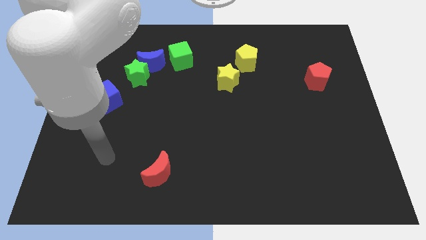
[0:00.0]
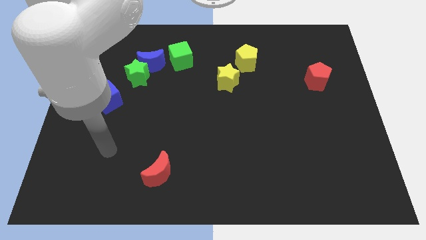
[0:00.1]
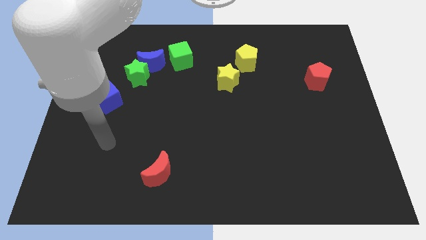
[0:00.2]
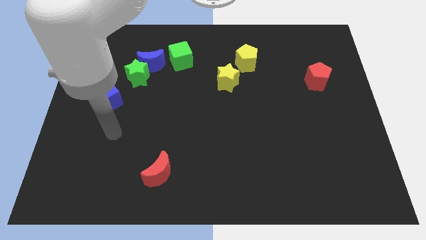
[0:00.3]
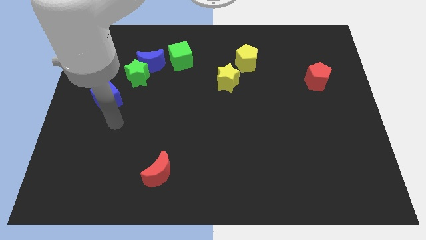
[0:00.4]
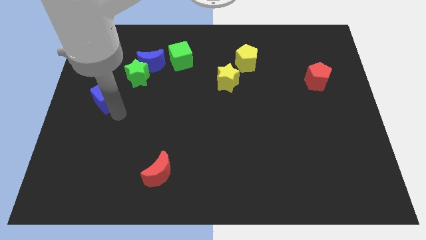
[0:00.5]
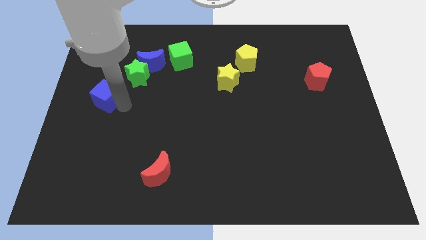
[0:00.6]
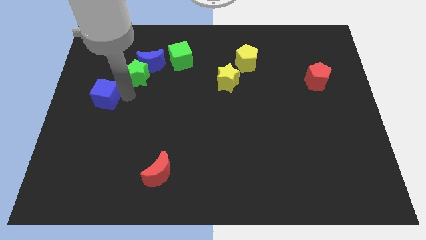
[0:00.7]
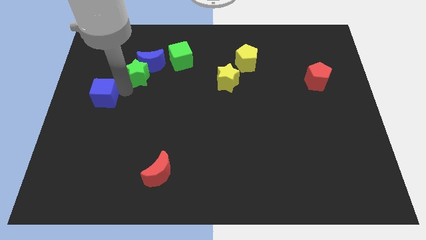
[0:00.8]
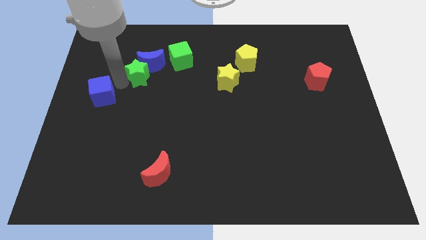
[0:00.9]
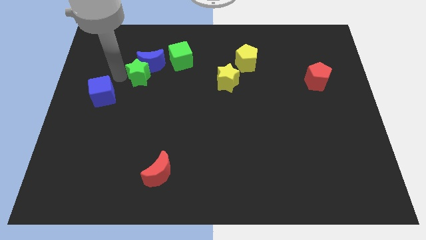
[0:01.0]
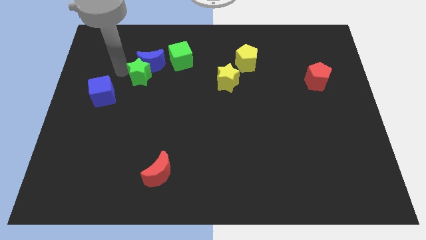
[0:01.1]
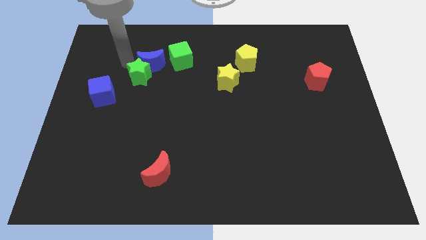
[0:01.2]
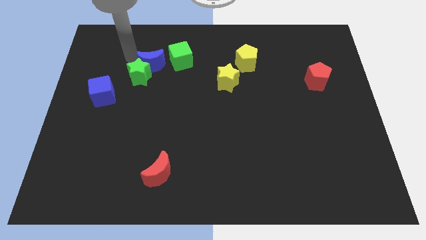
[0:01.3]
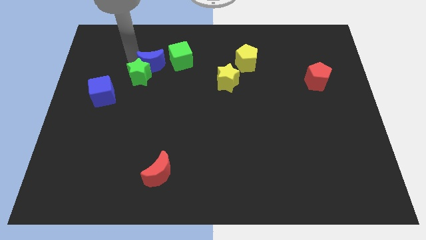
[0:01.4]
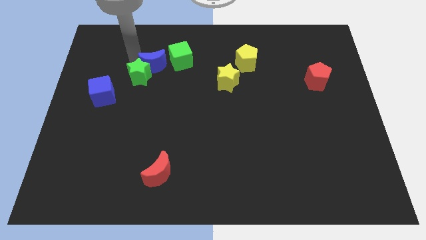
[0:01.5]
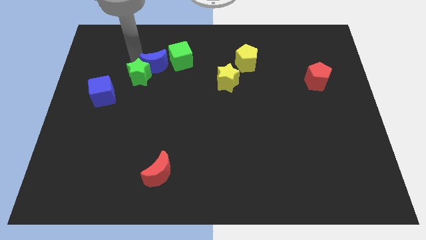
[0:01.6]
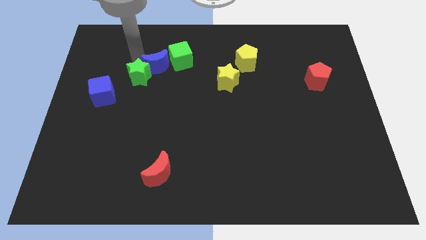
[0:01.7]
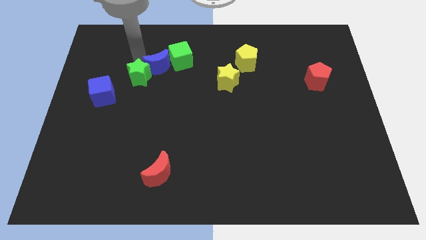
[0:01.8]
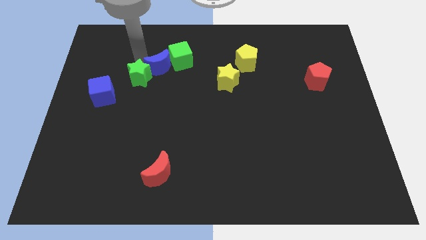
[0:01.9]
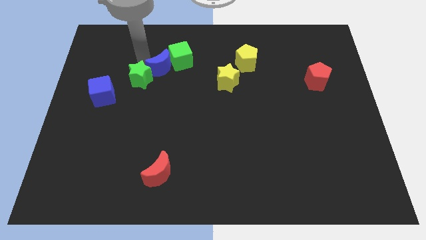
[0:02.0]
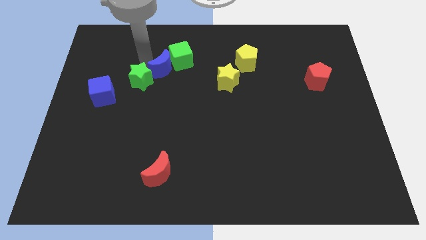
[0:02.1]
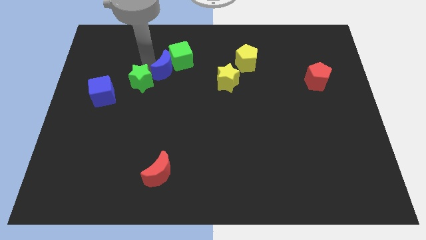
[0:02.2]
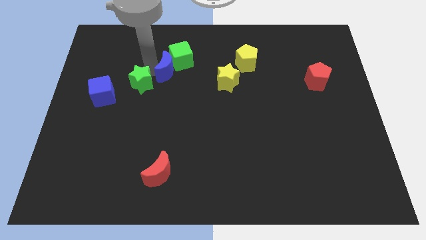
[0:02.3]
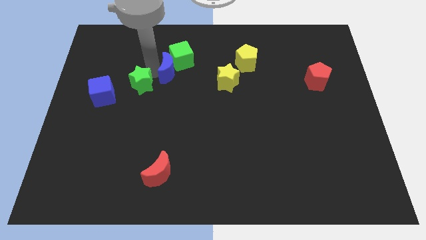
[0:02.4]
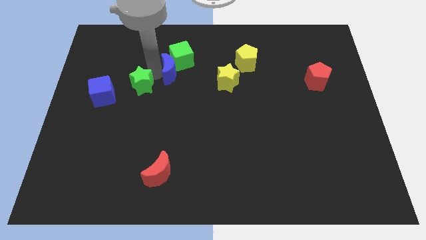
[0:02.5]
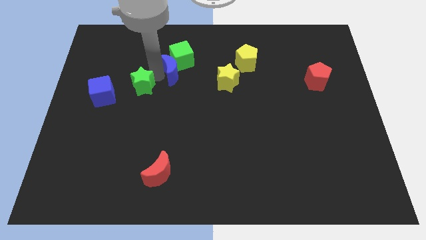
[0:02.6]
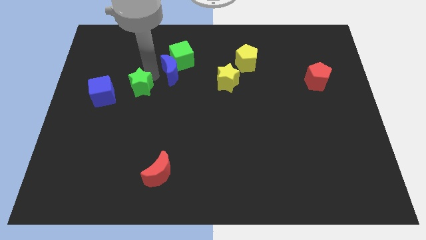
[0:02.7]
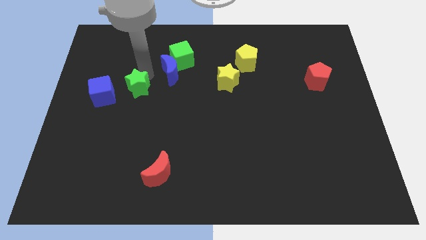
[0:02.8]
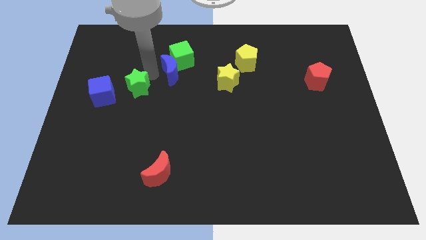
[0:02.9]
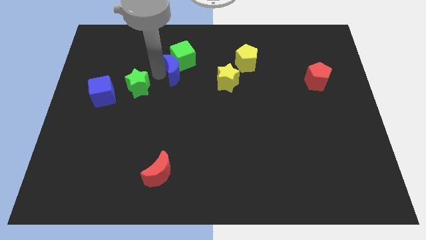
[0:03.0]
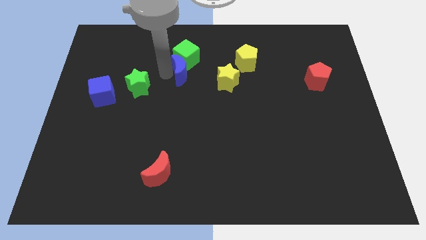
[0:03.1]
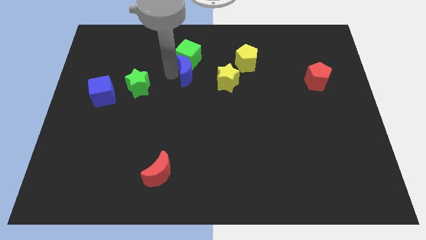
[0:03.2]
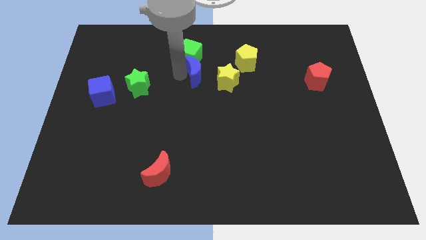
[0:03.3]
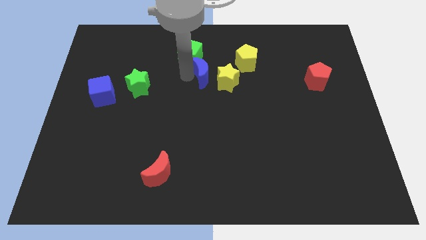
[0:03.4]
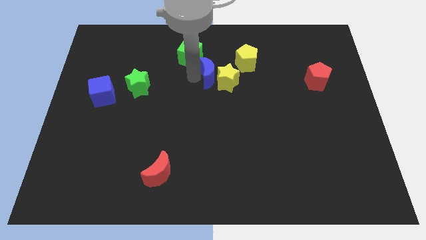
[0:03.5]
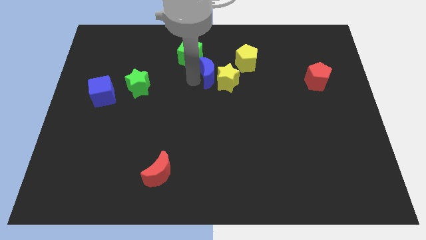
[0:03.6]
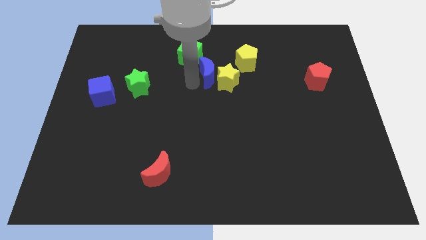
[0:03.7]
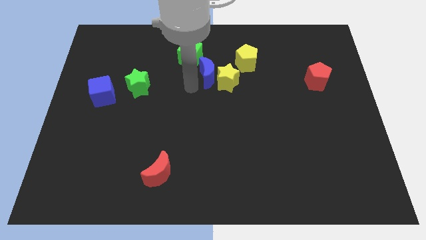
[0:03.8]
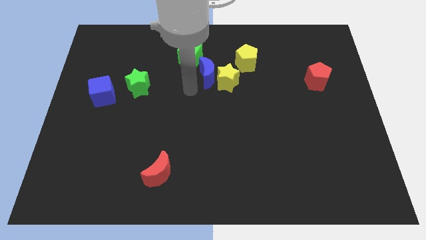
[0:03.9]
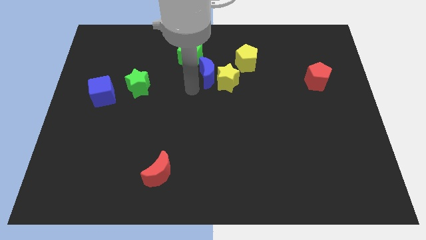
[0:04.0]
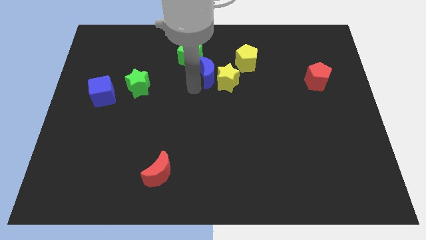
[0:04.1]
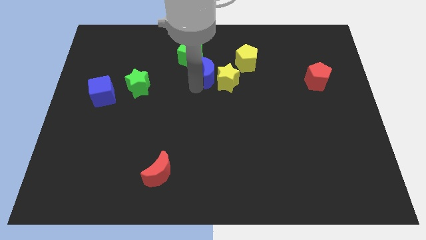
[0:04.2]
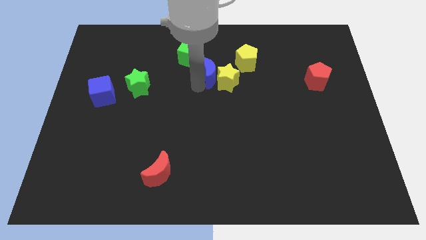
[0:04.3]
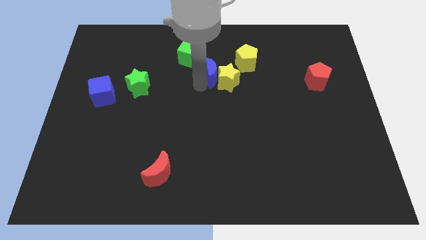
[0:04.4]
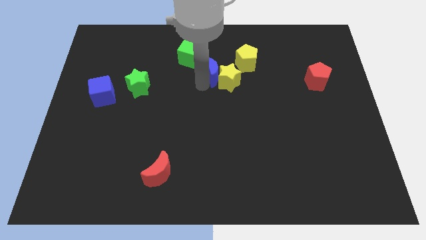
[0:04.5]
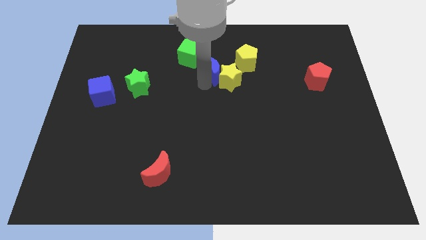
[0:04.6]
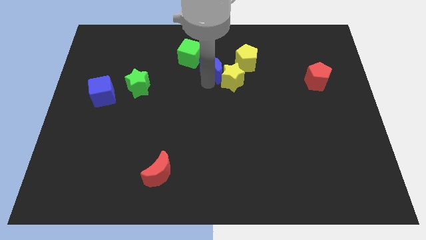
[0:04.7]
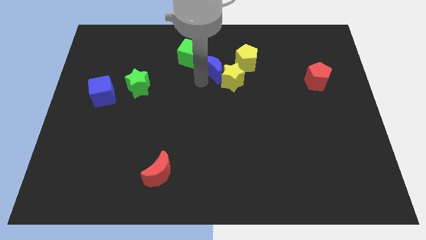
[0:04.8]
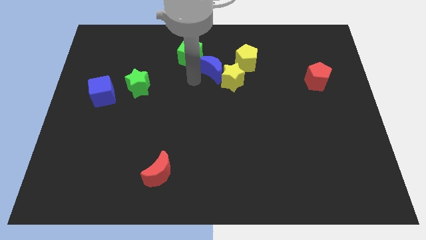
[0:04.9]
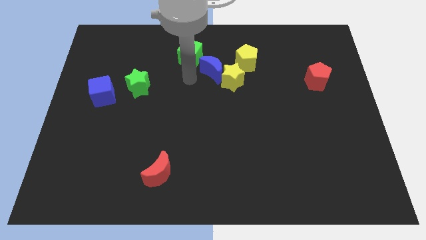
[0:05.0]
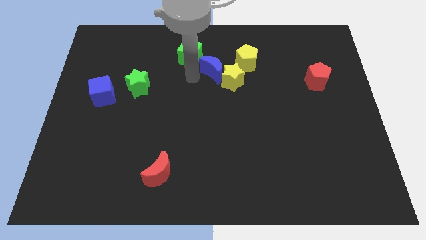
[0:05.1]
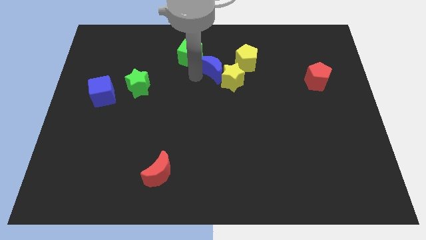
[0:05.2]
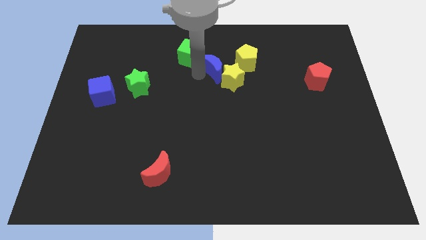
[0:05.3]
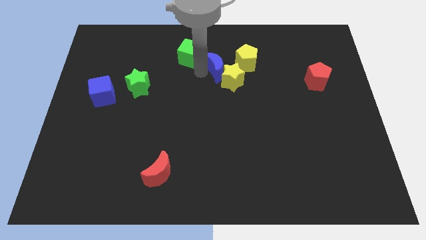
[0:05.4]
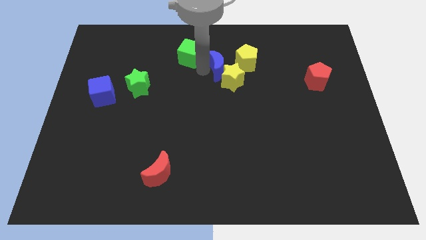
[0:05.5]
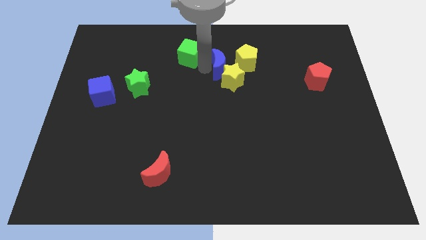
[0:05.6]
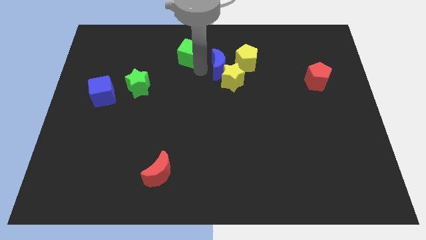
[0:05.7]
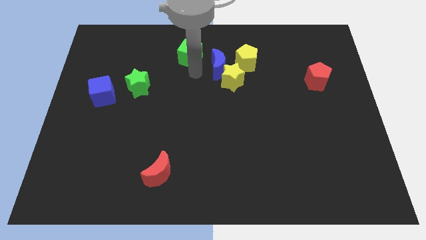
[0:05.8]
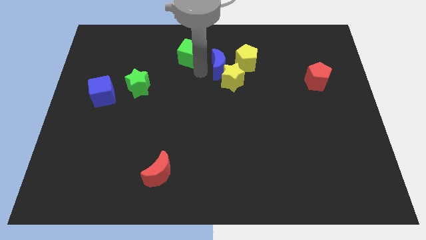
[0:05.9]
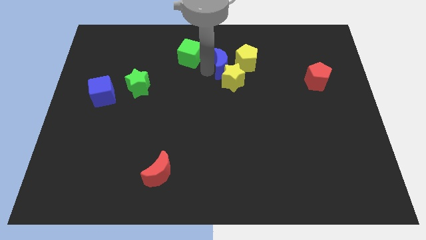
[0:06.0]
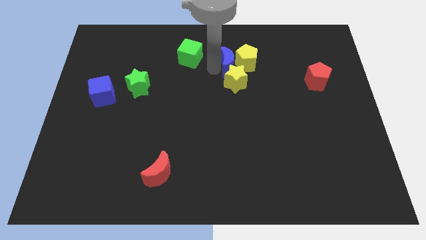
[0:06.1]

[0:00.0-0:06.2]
move the blue moon towards the yellow pentagon

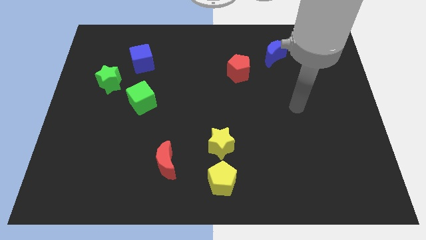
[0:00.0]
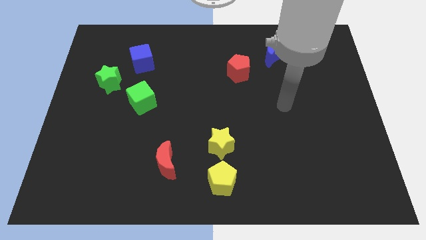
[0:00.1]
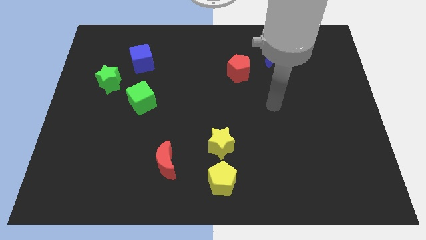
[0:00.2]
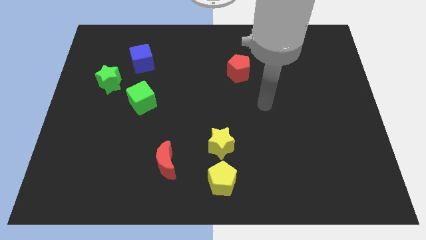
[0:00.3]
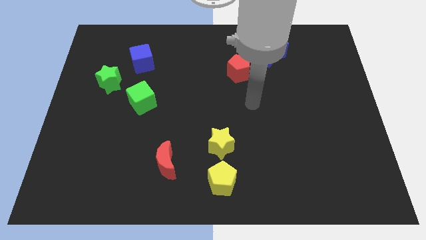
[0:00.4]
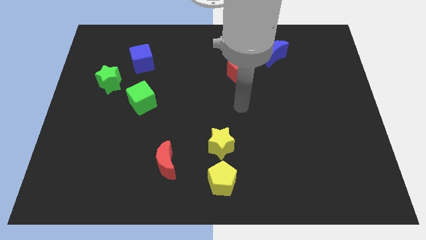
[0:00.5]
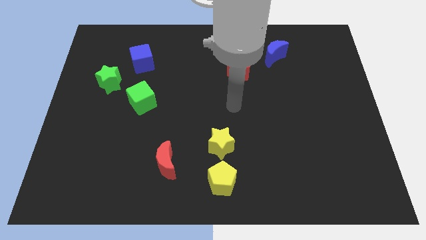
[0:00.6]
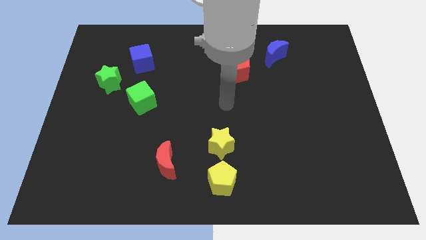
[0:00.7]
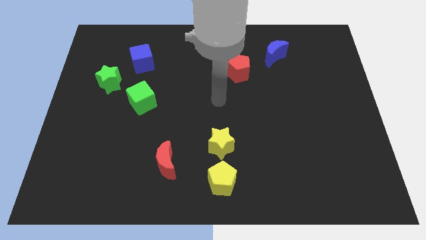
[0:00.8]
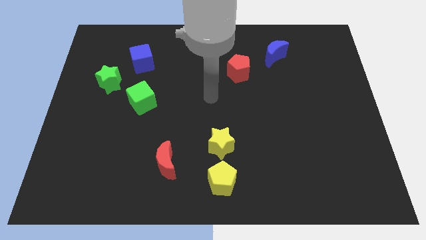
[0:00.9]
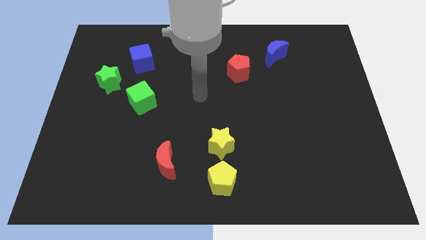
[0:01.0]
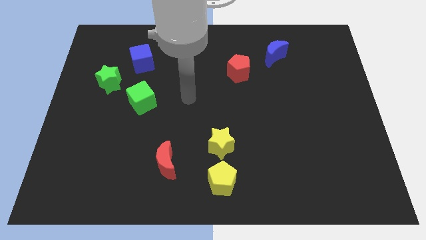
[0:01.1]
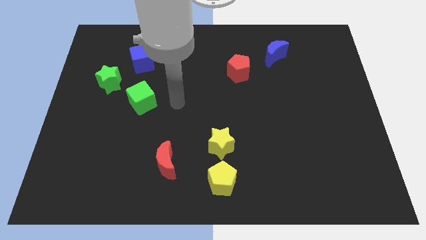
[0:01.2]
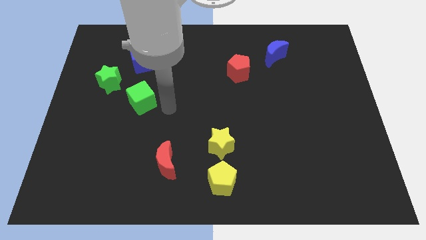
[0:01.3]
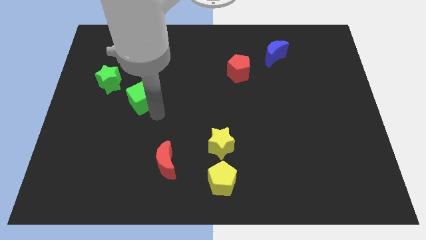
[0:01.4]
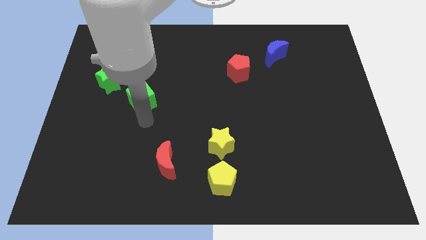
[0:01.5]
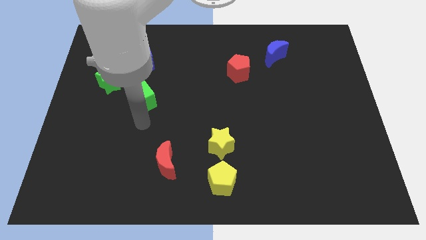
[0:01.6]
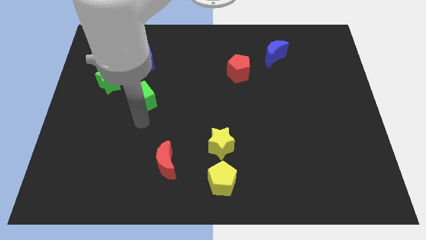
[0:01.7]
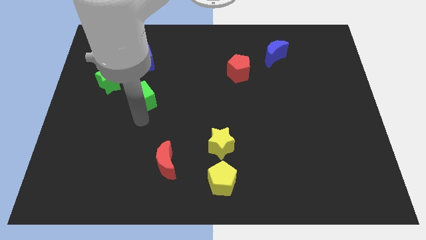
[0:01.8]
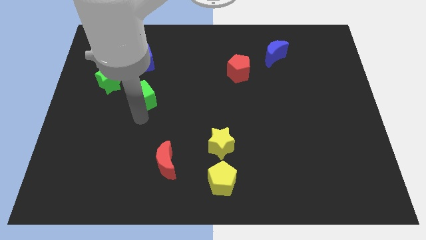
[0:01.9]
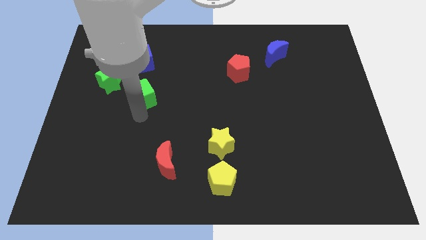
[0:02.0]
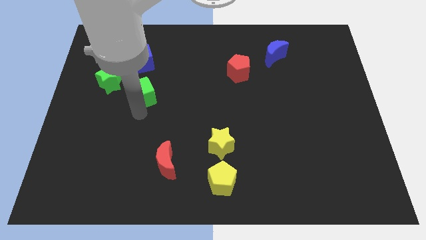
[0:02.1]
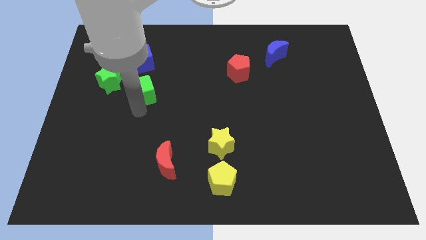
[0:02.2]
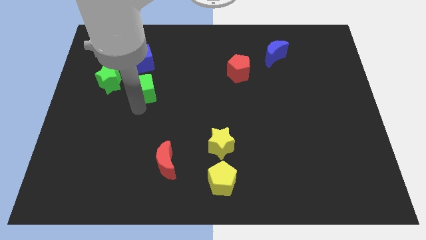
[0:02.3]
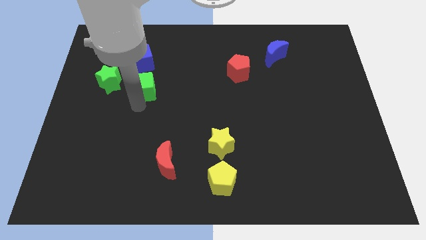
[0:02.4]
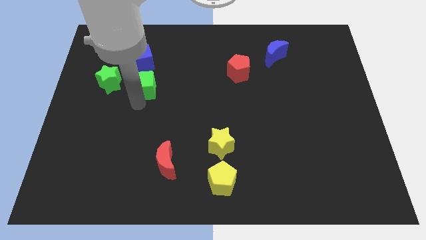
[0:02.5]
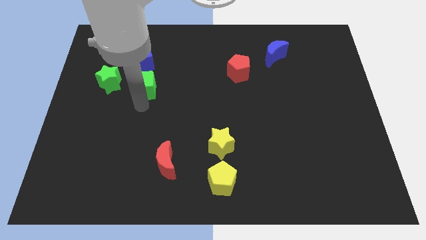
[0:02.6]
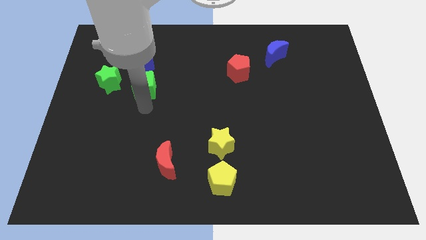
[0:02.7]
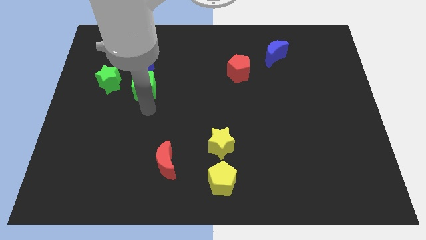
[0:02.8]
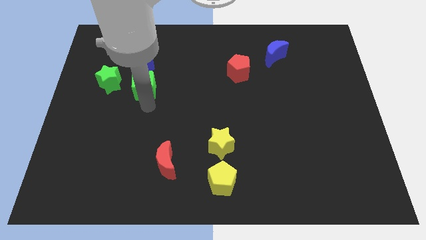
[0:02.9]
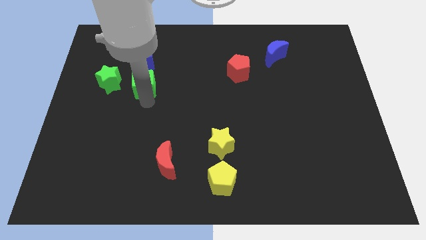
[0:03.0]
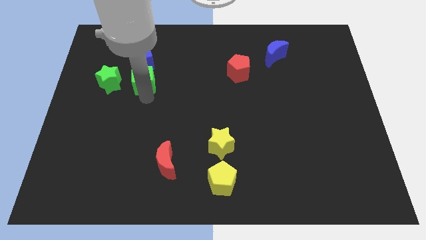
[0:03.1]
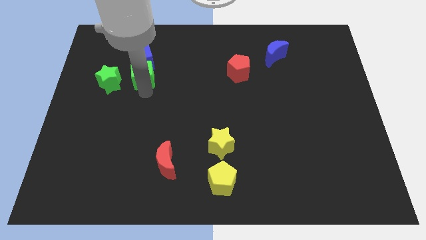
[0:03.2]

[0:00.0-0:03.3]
slide the green cube to the blue cube
